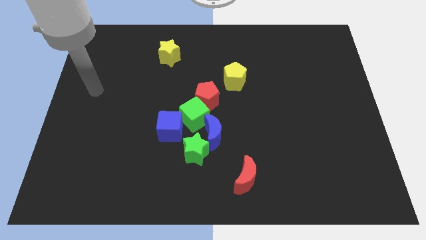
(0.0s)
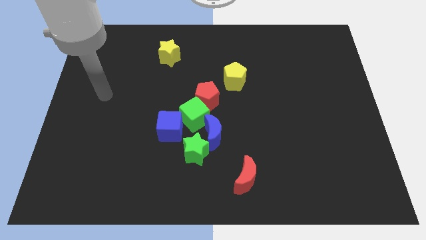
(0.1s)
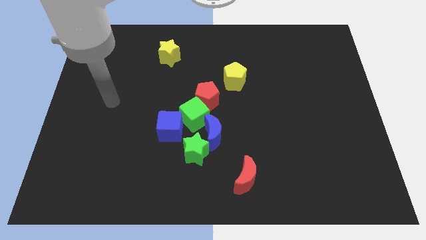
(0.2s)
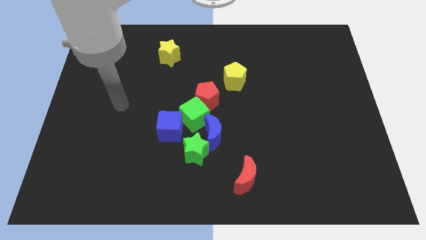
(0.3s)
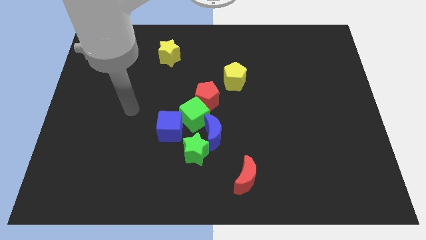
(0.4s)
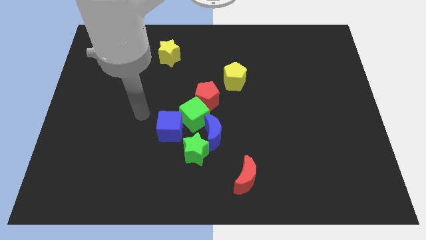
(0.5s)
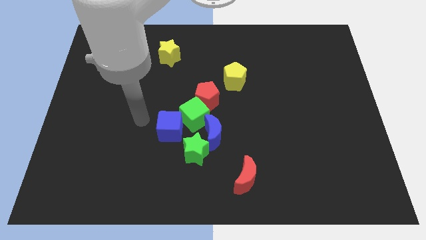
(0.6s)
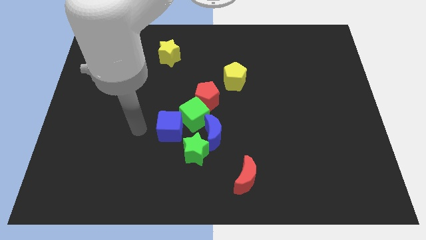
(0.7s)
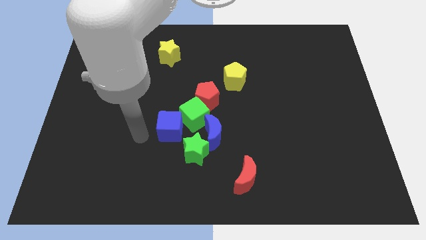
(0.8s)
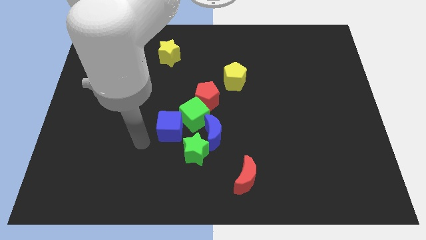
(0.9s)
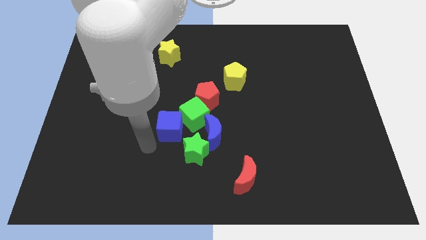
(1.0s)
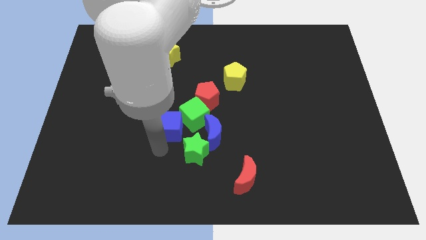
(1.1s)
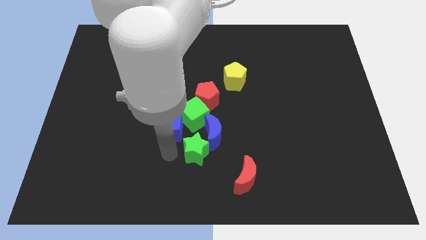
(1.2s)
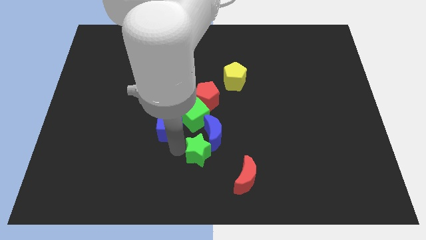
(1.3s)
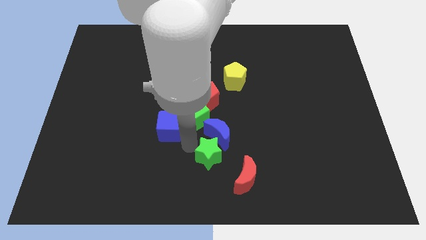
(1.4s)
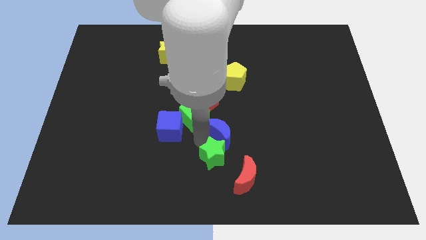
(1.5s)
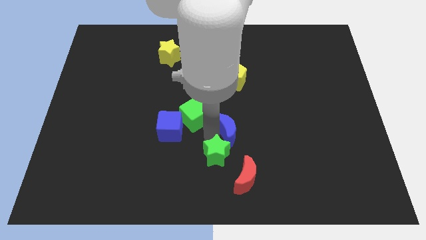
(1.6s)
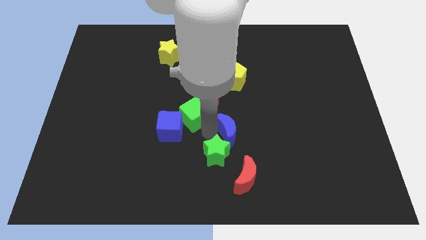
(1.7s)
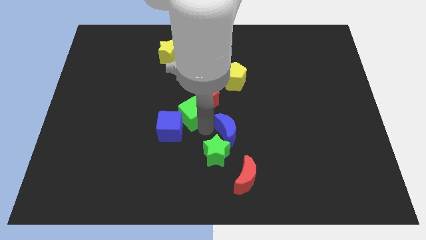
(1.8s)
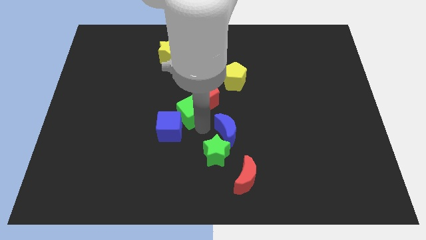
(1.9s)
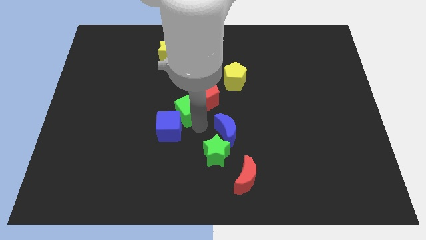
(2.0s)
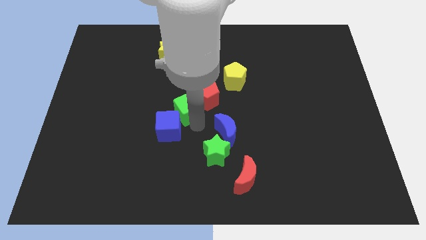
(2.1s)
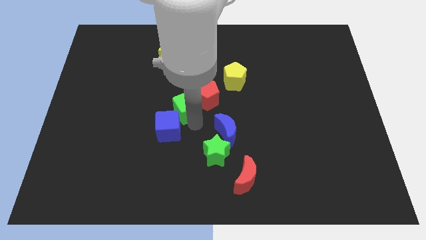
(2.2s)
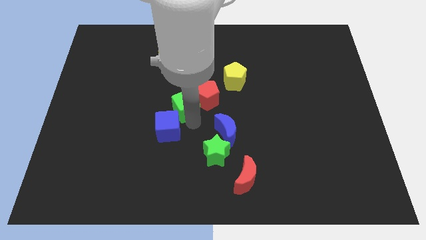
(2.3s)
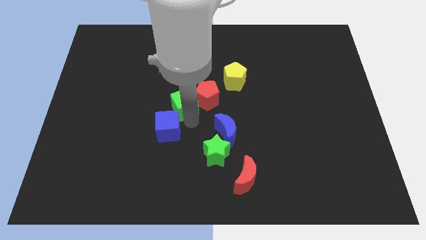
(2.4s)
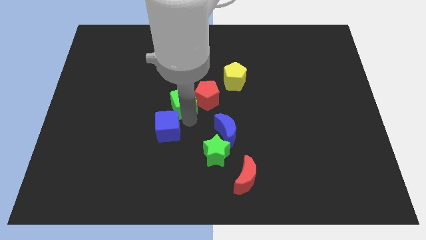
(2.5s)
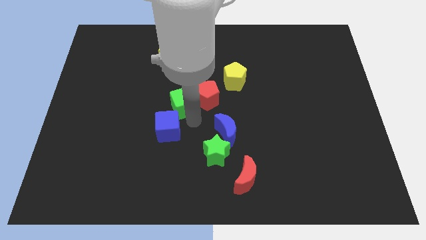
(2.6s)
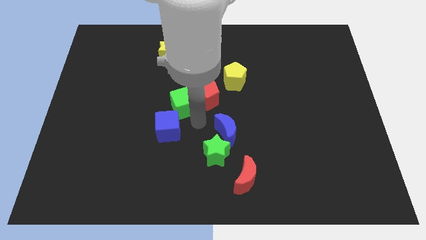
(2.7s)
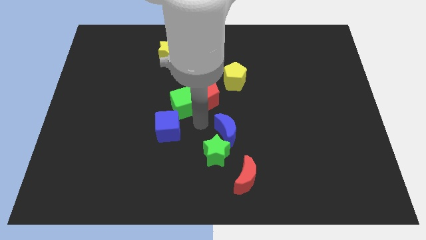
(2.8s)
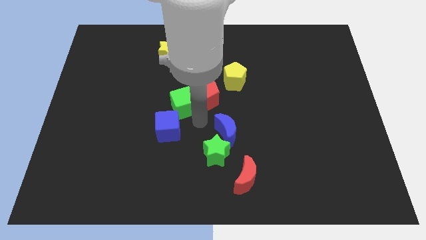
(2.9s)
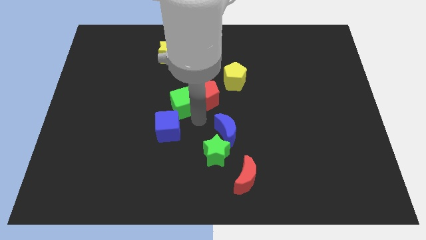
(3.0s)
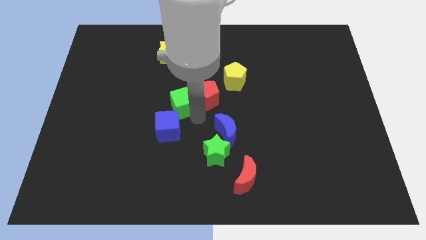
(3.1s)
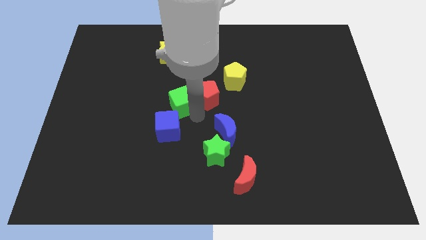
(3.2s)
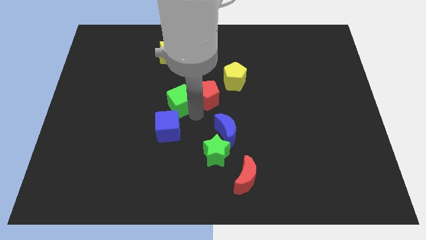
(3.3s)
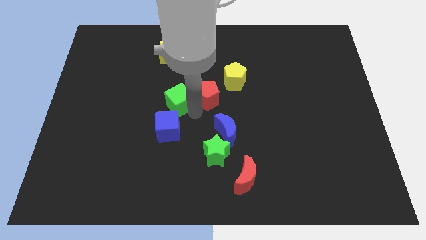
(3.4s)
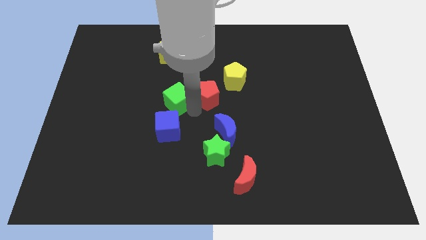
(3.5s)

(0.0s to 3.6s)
separate the green cube from the clump

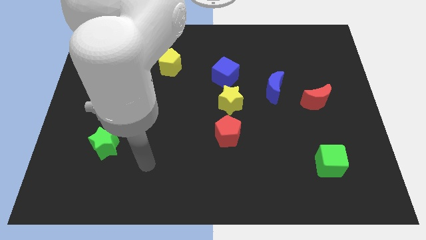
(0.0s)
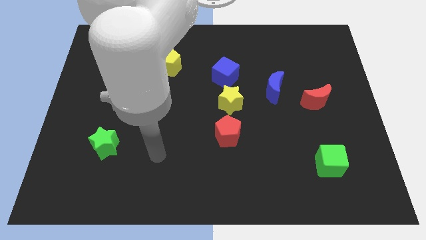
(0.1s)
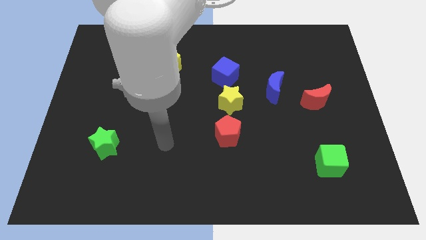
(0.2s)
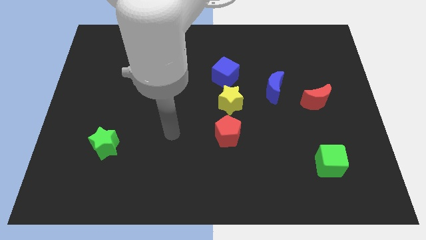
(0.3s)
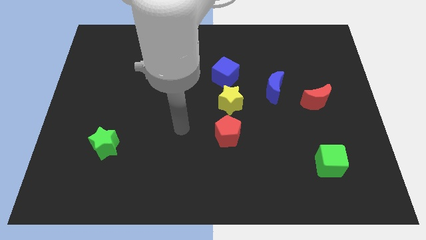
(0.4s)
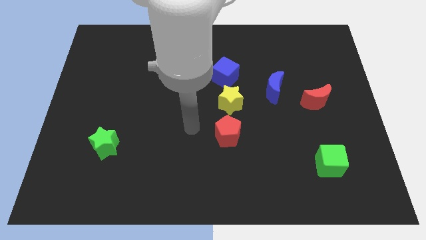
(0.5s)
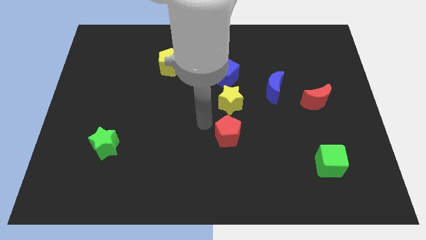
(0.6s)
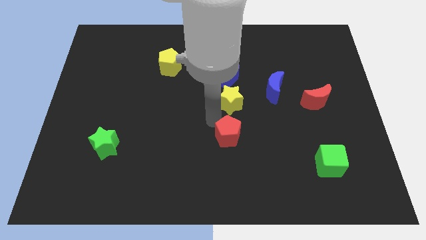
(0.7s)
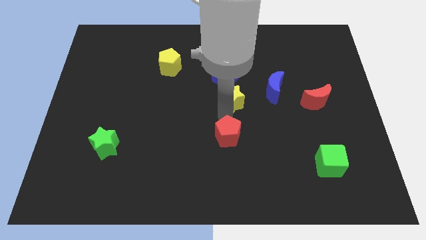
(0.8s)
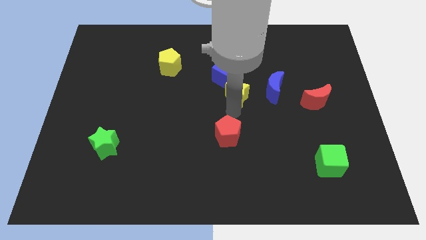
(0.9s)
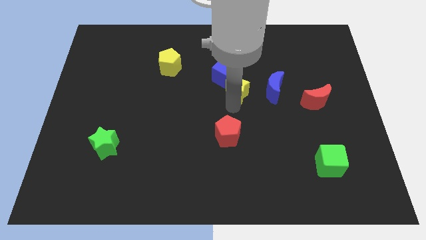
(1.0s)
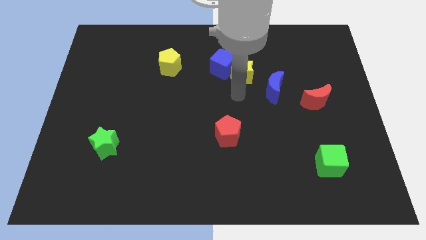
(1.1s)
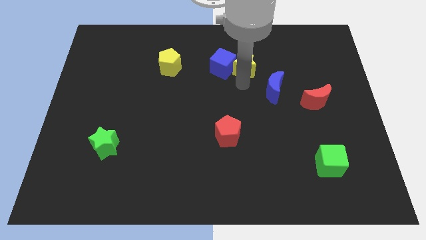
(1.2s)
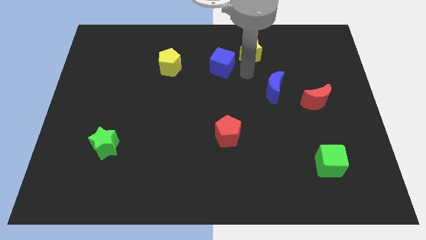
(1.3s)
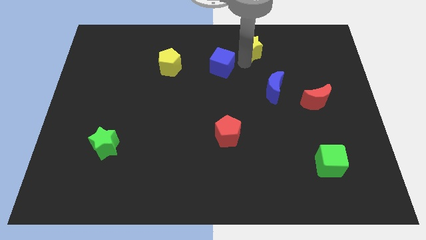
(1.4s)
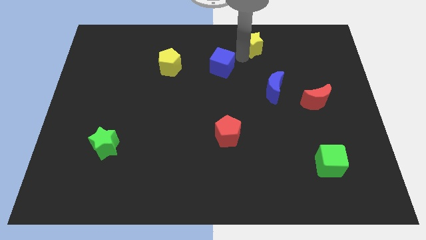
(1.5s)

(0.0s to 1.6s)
separate the blue cube from the yellow star

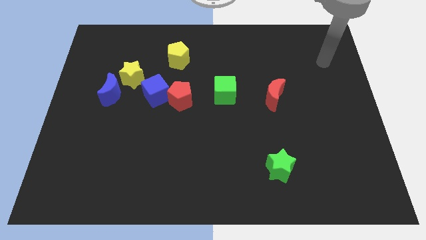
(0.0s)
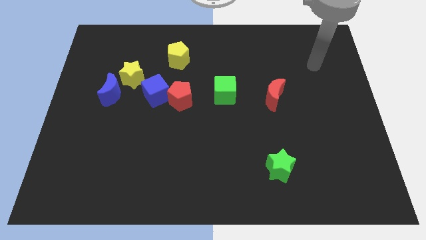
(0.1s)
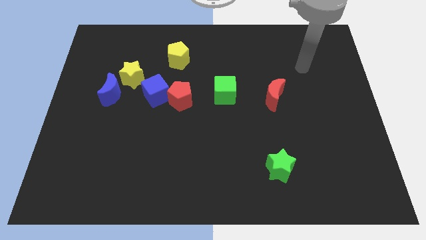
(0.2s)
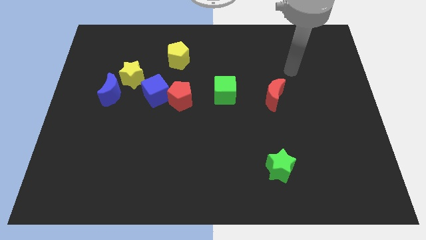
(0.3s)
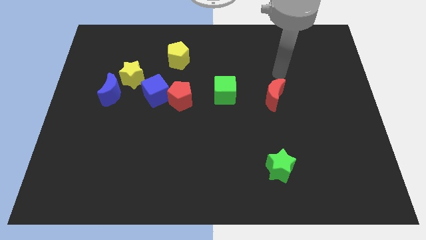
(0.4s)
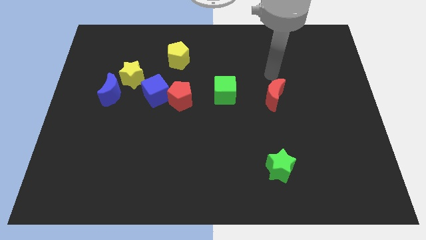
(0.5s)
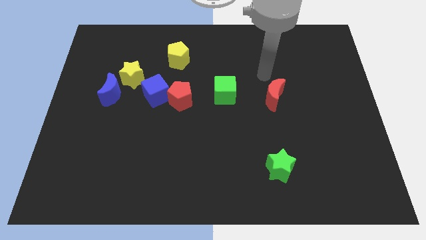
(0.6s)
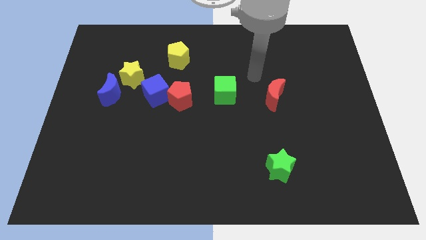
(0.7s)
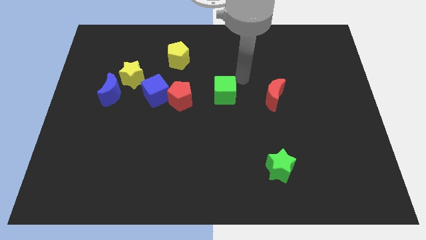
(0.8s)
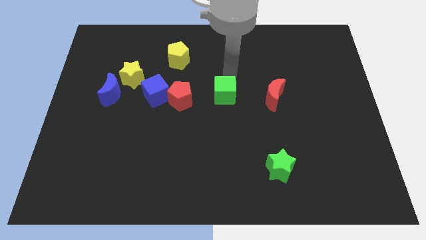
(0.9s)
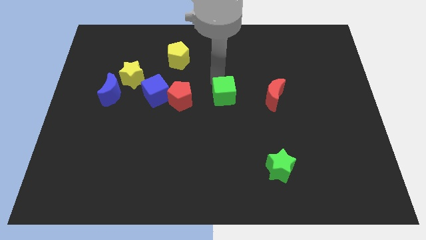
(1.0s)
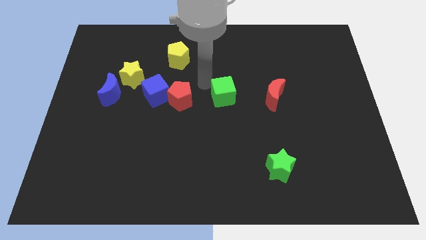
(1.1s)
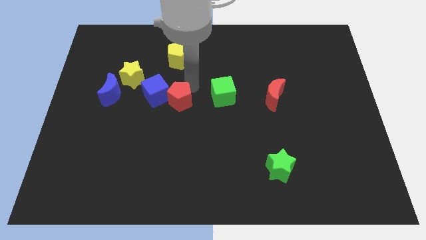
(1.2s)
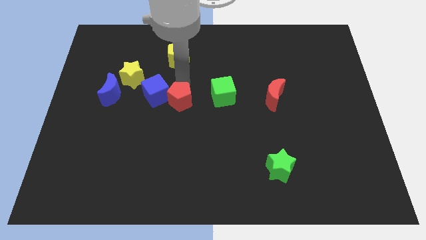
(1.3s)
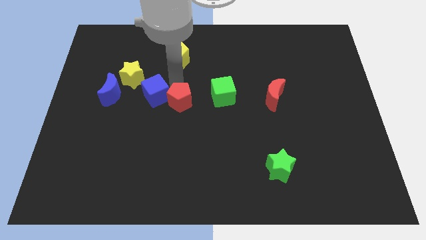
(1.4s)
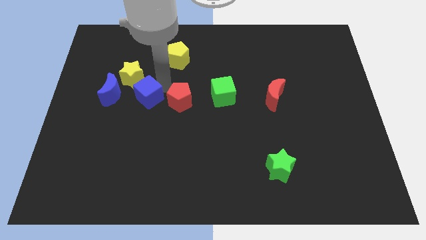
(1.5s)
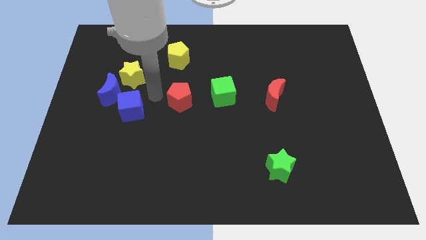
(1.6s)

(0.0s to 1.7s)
separate the red pentagon from the blue cube

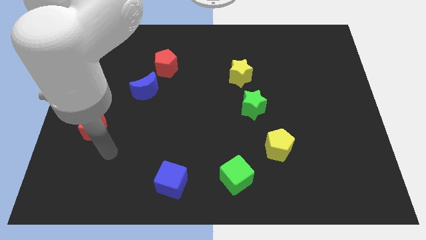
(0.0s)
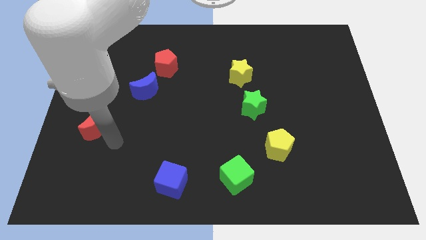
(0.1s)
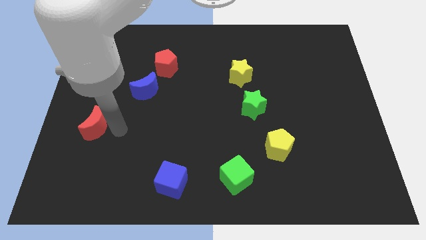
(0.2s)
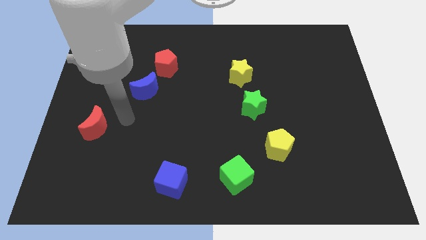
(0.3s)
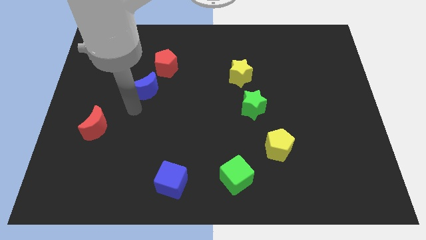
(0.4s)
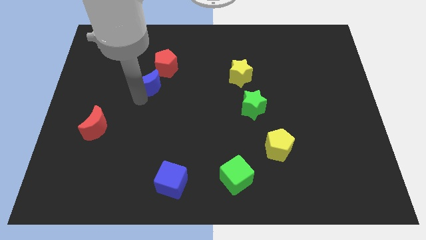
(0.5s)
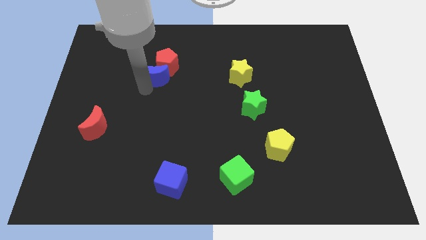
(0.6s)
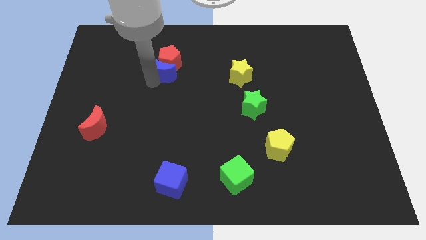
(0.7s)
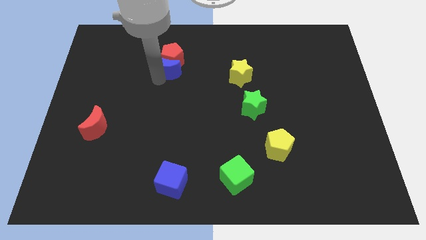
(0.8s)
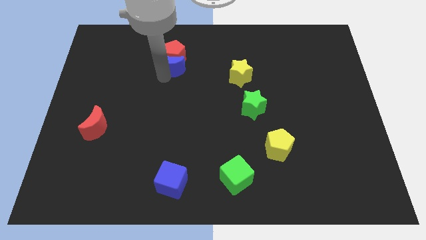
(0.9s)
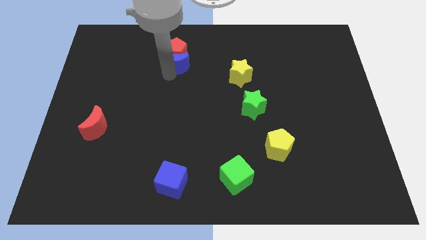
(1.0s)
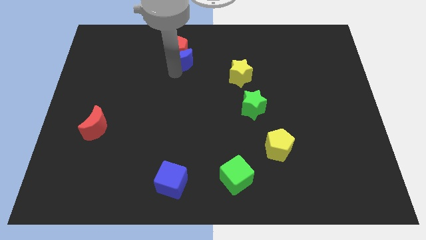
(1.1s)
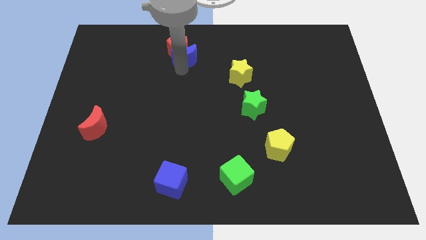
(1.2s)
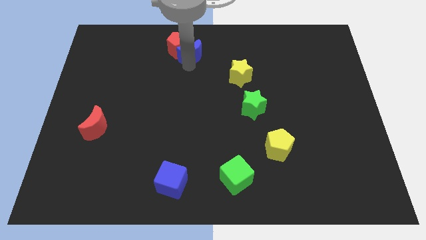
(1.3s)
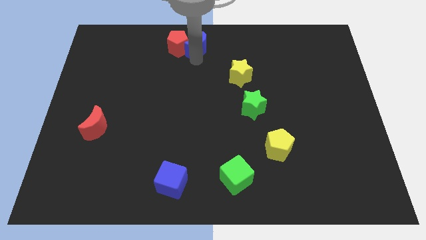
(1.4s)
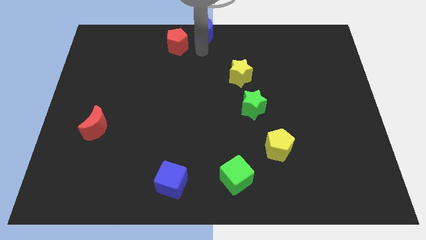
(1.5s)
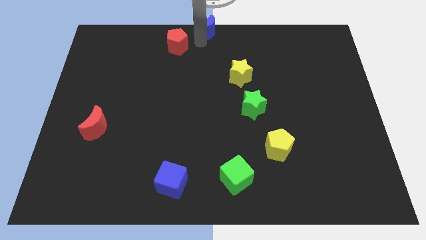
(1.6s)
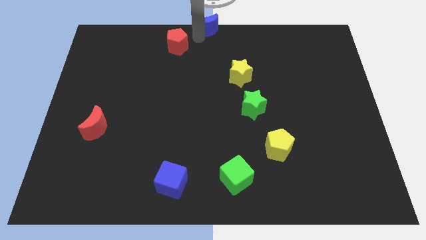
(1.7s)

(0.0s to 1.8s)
separate the red pentagon from the blue moon

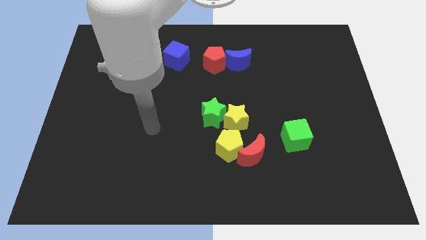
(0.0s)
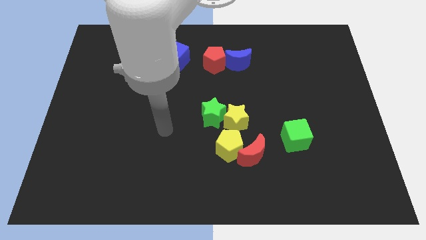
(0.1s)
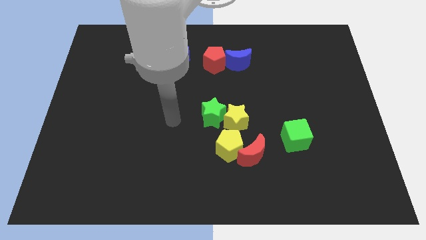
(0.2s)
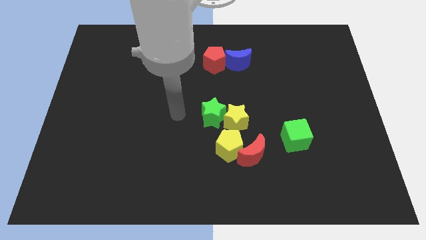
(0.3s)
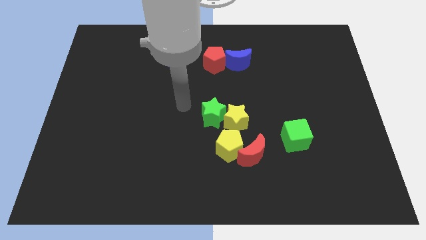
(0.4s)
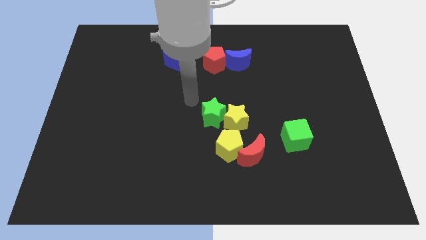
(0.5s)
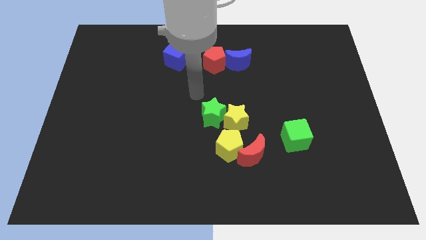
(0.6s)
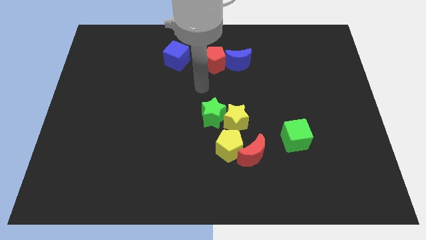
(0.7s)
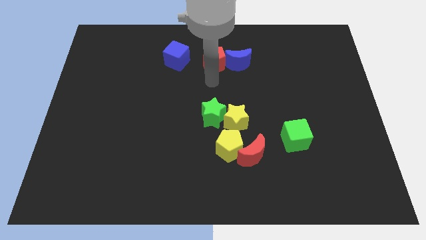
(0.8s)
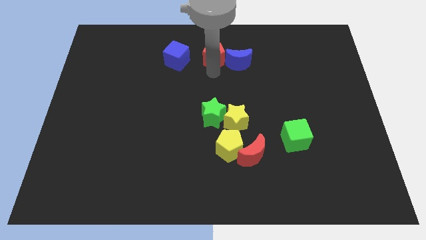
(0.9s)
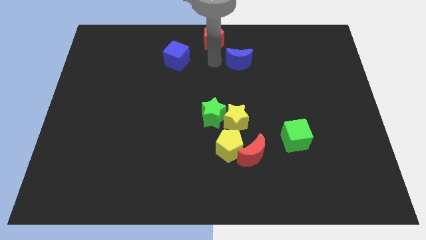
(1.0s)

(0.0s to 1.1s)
pull the blue moon apart from the red pentagon
